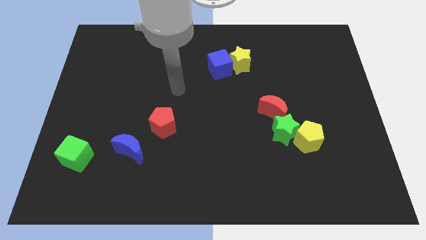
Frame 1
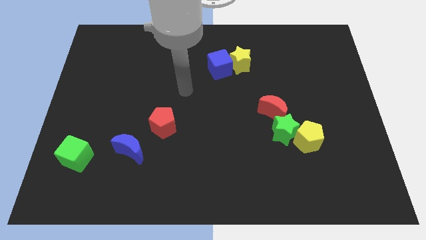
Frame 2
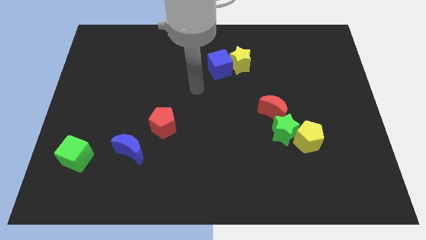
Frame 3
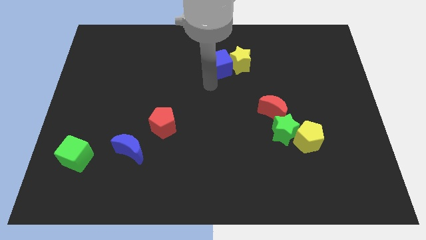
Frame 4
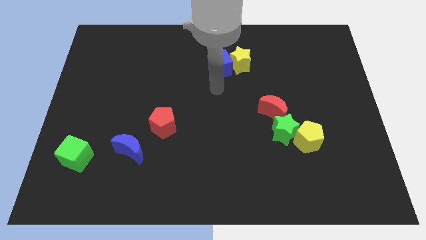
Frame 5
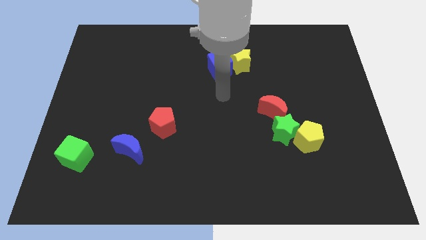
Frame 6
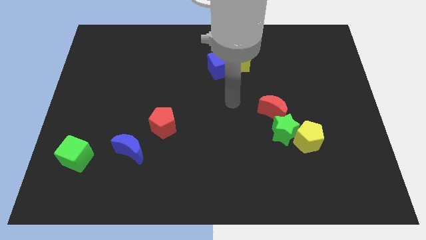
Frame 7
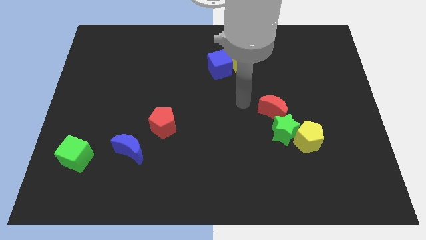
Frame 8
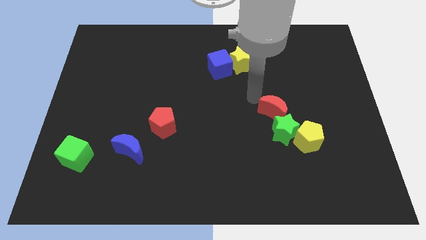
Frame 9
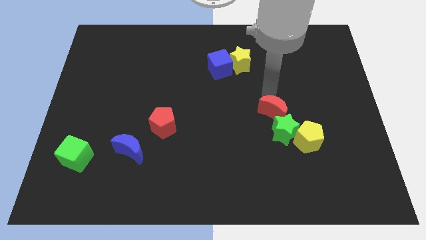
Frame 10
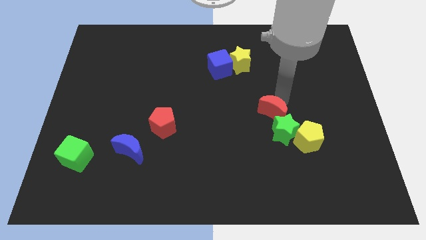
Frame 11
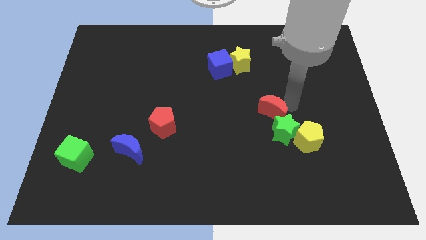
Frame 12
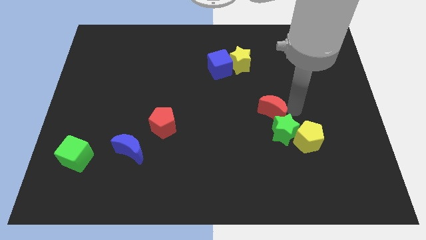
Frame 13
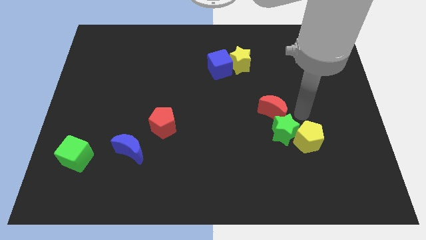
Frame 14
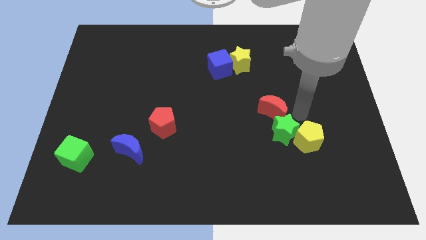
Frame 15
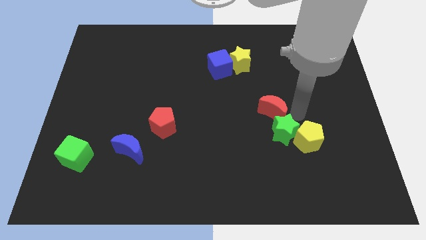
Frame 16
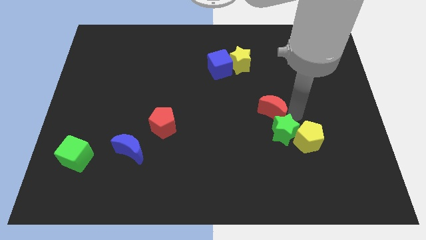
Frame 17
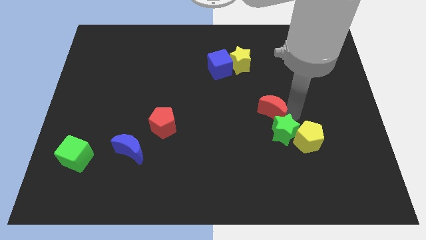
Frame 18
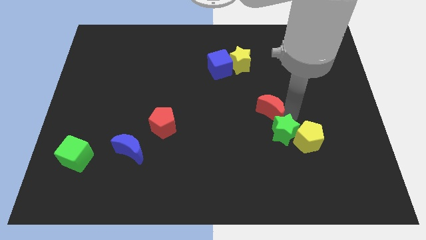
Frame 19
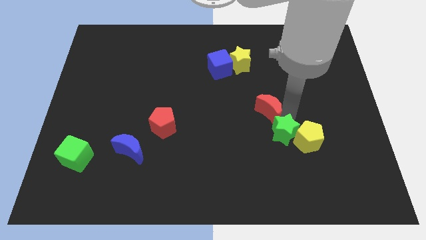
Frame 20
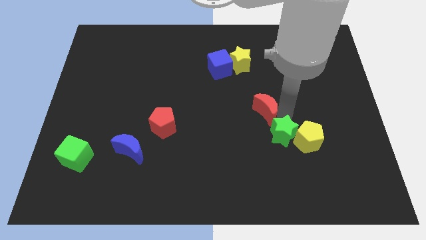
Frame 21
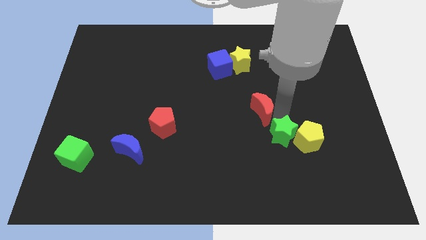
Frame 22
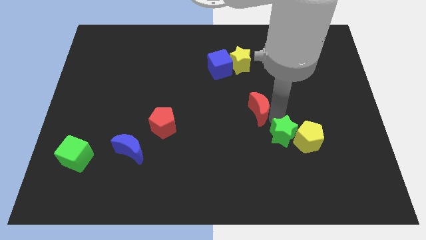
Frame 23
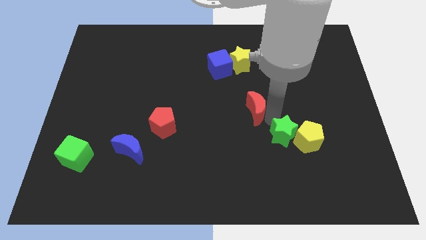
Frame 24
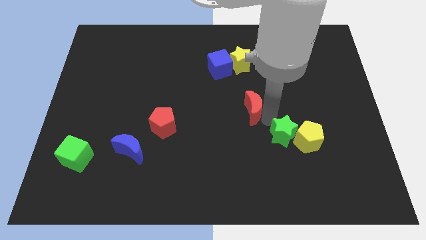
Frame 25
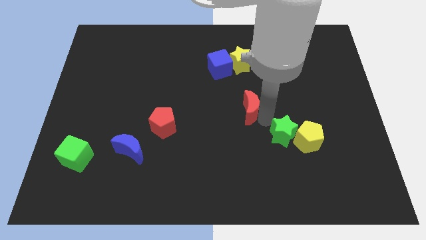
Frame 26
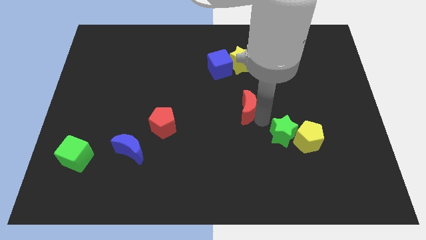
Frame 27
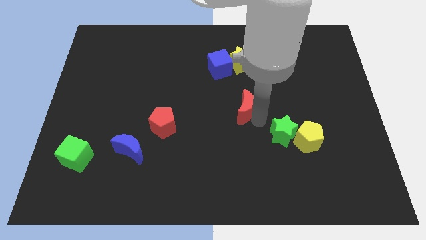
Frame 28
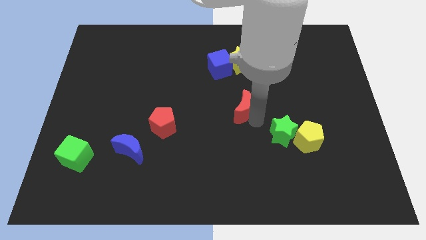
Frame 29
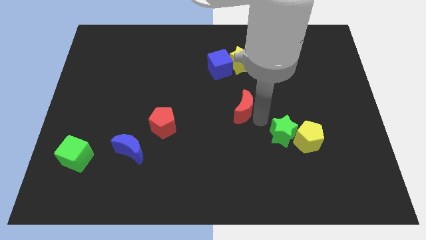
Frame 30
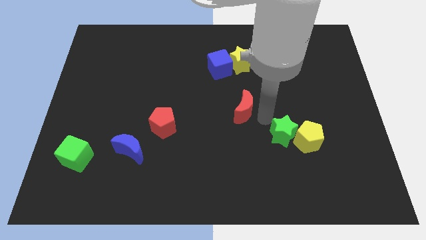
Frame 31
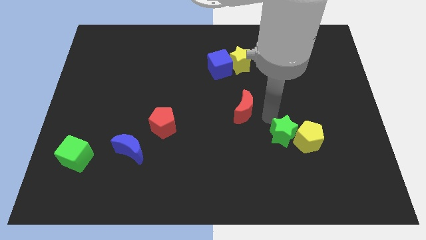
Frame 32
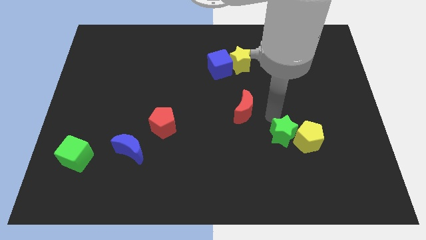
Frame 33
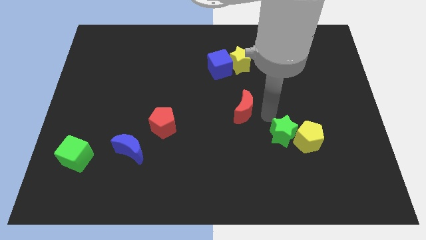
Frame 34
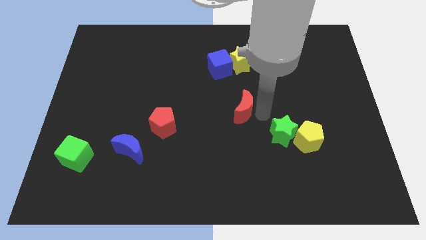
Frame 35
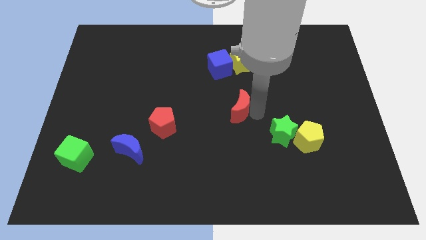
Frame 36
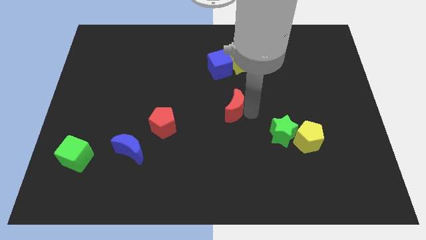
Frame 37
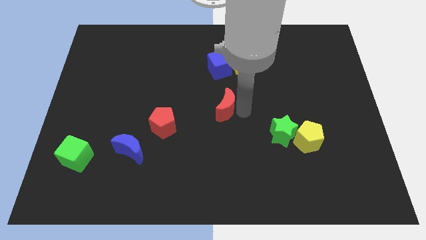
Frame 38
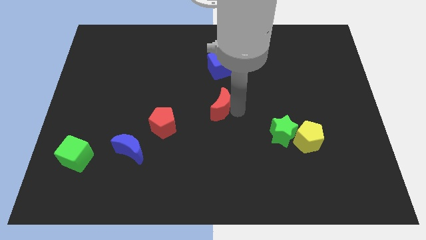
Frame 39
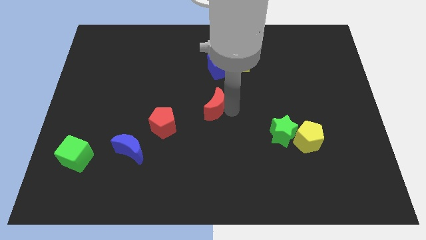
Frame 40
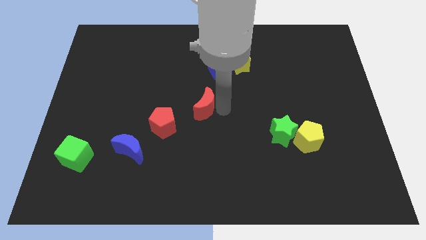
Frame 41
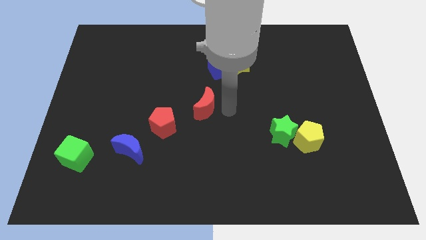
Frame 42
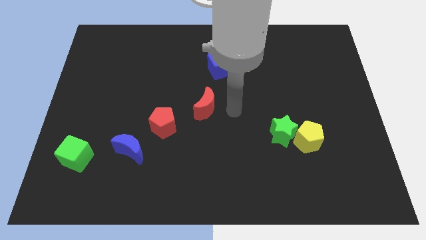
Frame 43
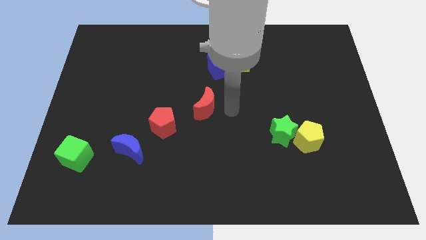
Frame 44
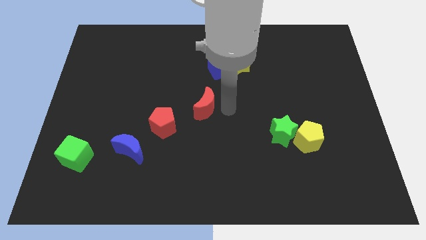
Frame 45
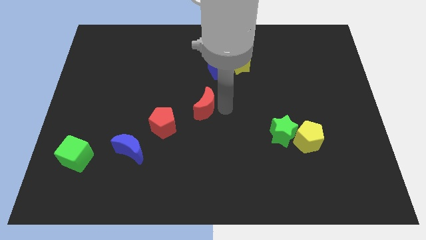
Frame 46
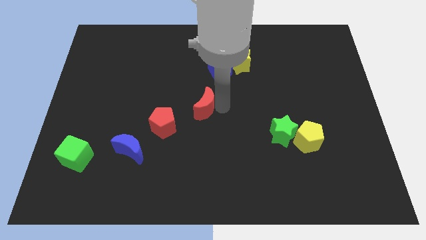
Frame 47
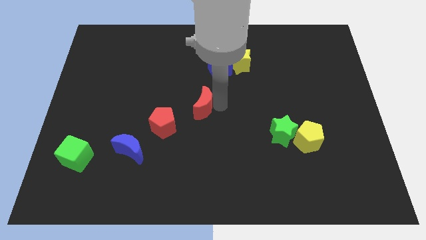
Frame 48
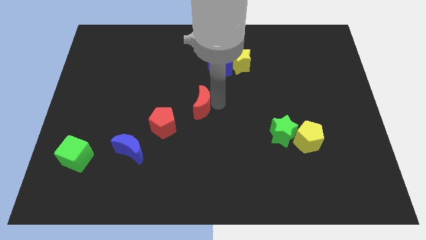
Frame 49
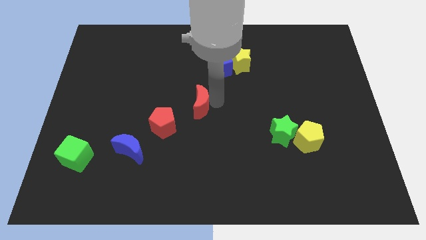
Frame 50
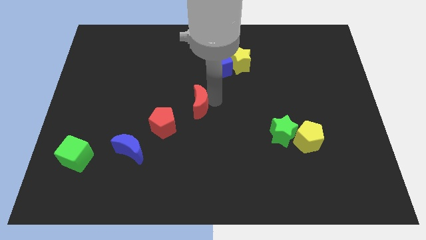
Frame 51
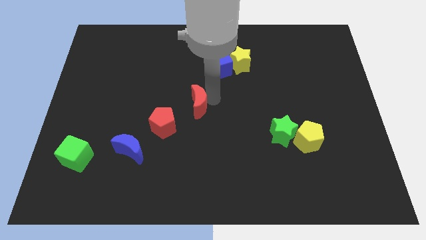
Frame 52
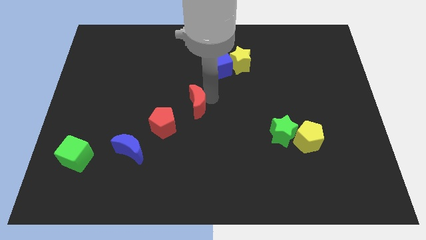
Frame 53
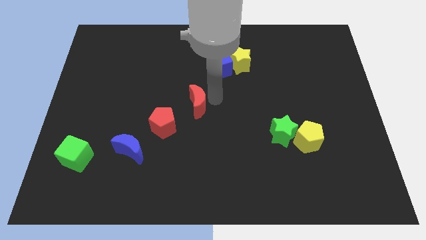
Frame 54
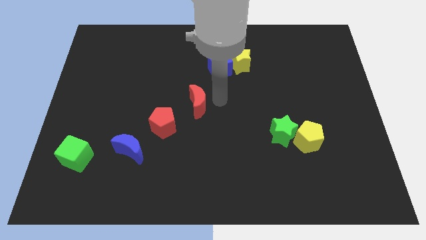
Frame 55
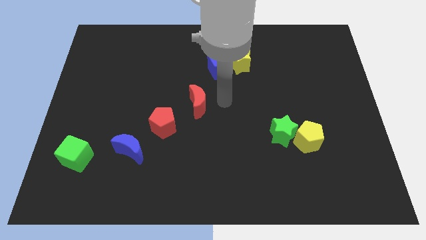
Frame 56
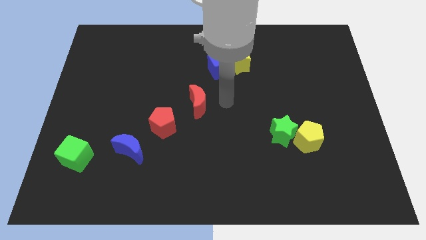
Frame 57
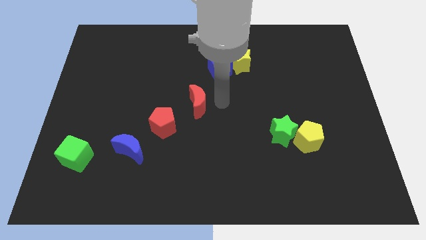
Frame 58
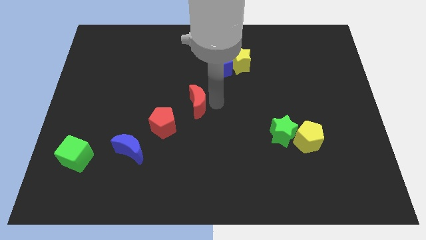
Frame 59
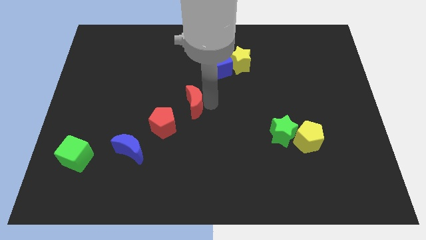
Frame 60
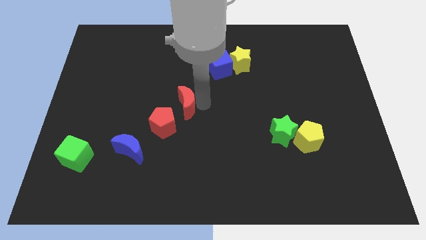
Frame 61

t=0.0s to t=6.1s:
move the red moon to the left

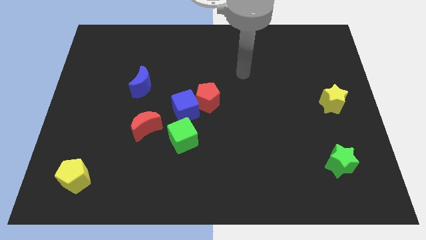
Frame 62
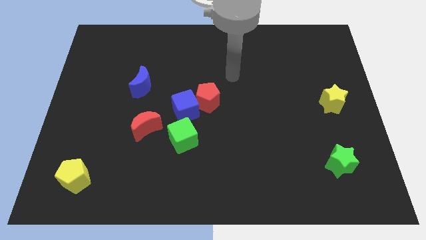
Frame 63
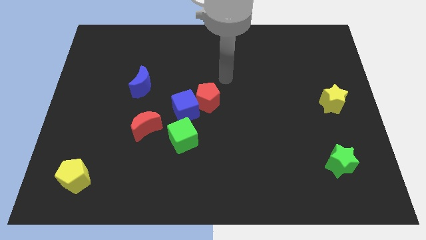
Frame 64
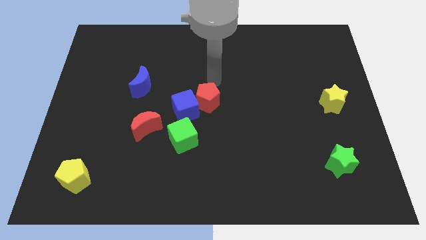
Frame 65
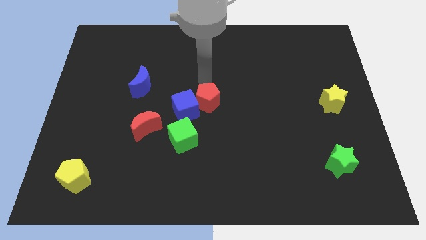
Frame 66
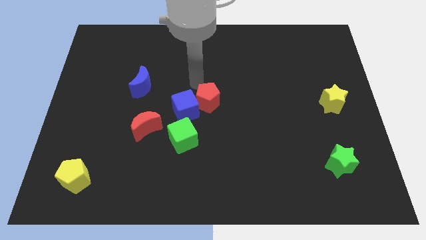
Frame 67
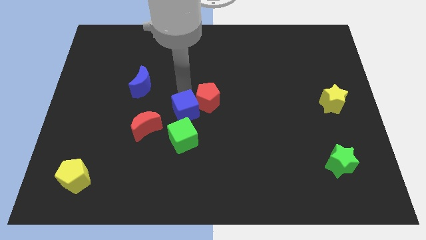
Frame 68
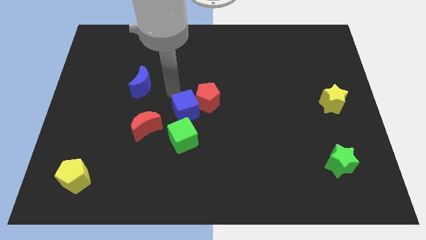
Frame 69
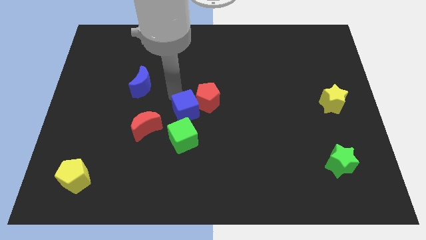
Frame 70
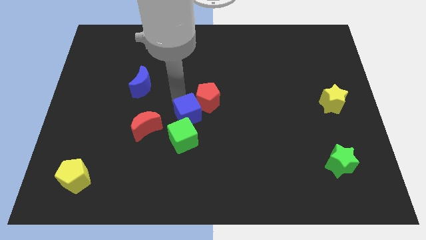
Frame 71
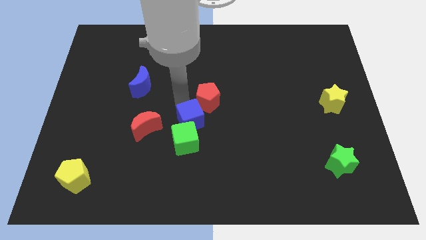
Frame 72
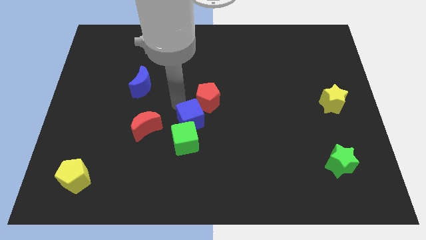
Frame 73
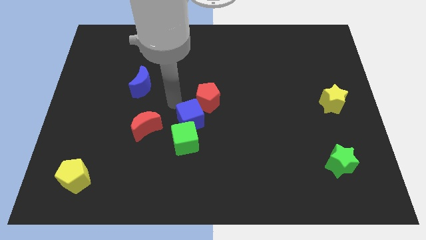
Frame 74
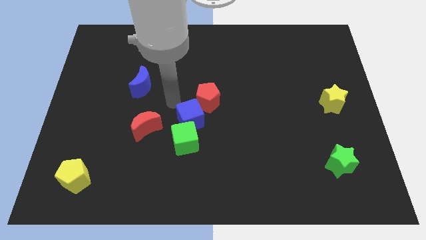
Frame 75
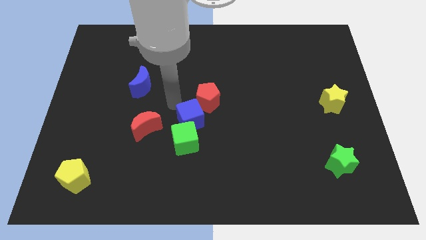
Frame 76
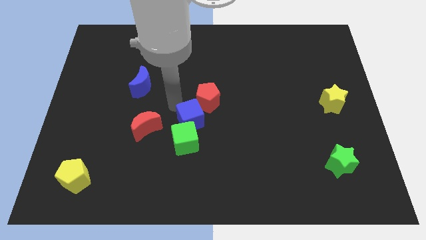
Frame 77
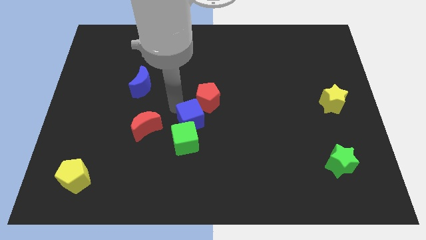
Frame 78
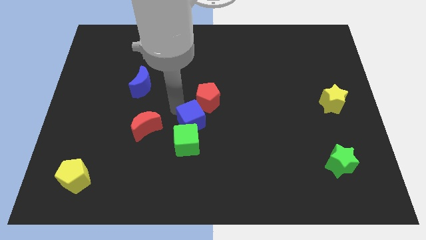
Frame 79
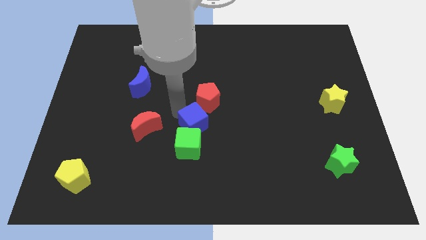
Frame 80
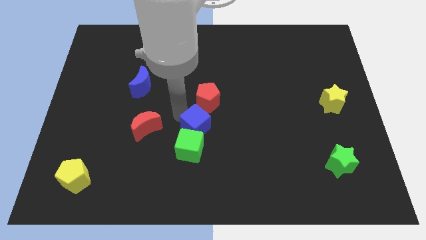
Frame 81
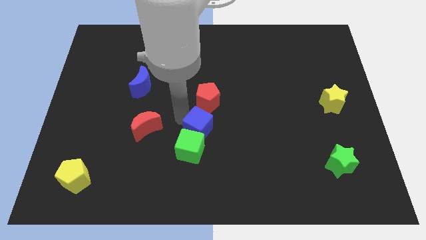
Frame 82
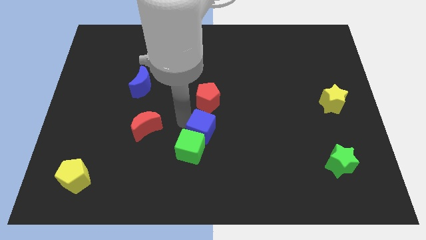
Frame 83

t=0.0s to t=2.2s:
slightly move the blue cube downwards and right diagonally

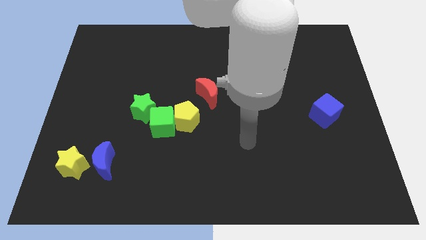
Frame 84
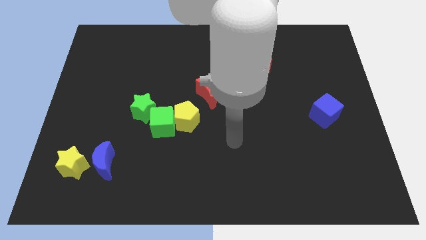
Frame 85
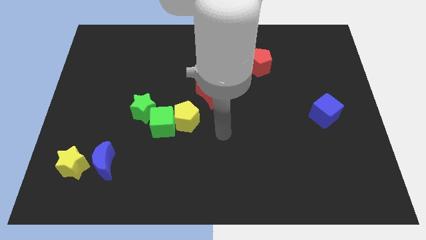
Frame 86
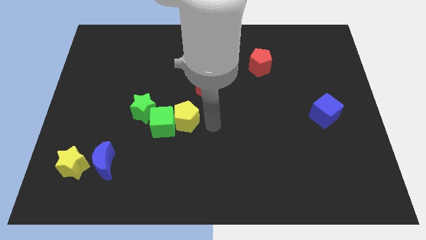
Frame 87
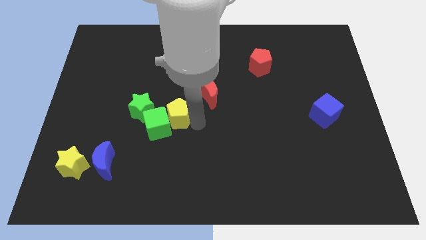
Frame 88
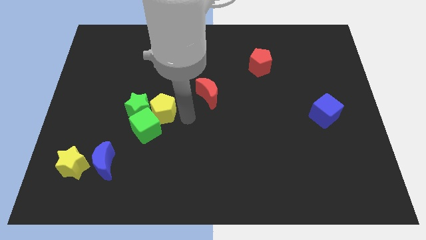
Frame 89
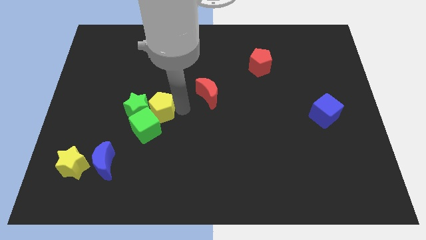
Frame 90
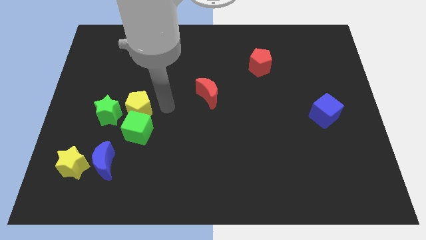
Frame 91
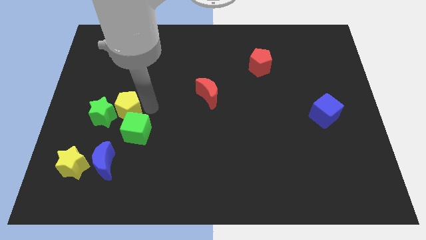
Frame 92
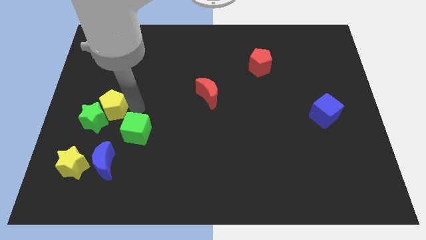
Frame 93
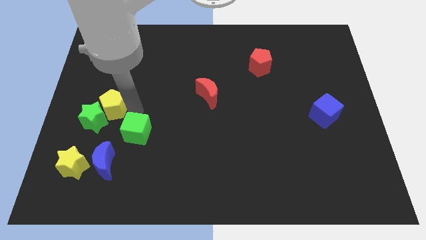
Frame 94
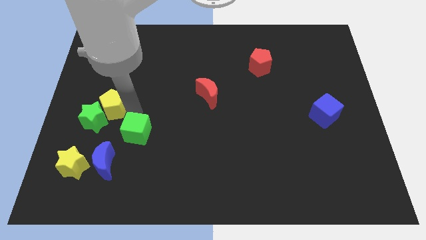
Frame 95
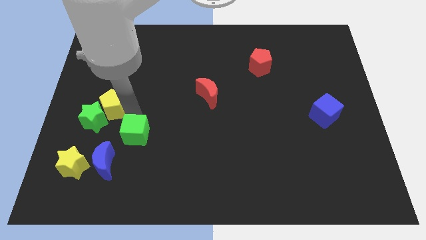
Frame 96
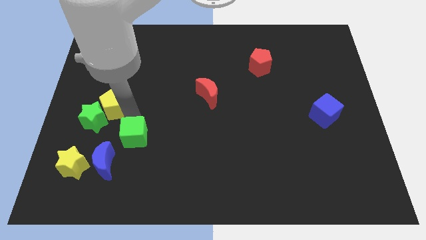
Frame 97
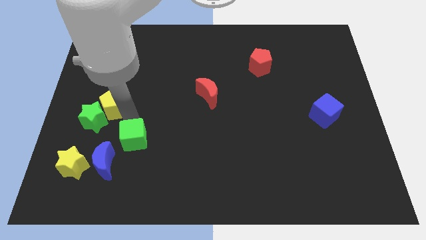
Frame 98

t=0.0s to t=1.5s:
slide the green cube a bit downwards and left
